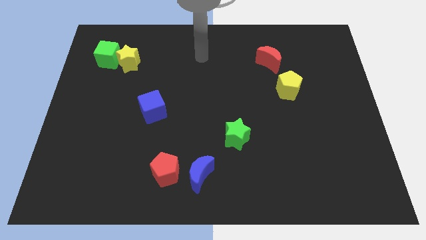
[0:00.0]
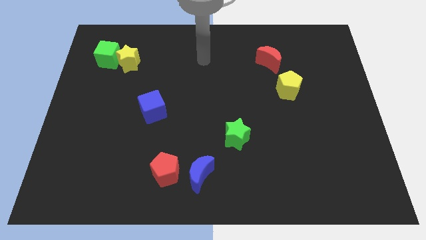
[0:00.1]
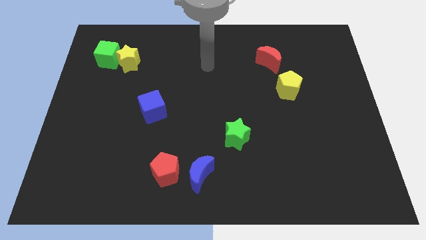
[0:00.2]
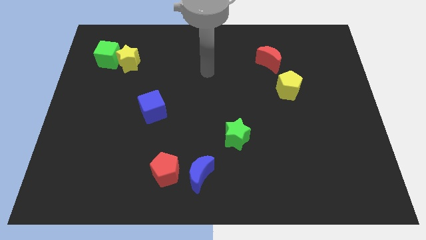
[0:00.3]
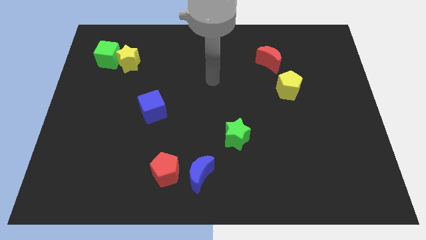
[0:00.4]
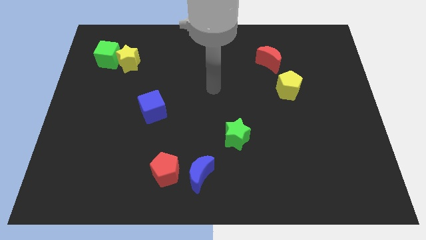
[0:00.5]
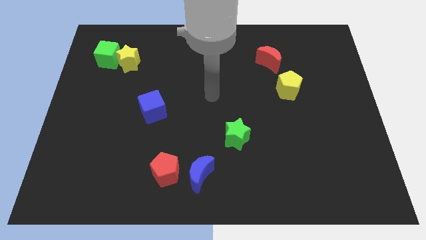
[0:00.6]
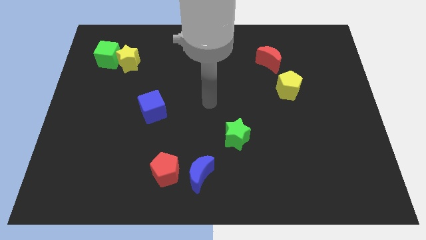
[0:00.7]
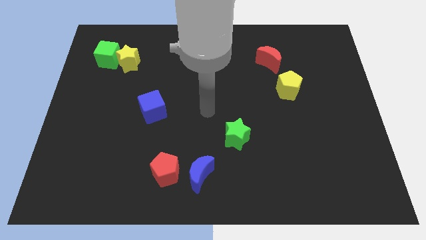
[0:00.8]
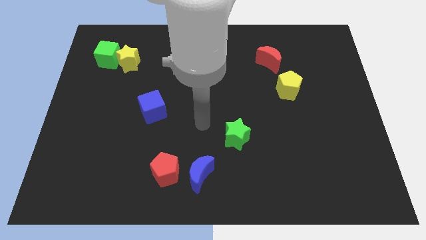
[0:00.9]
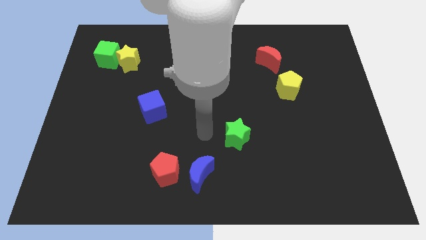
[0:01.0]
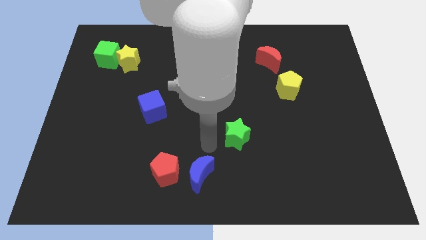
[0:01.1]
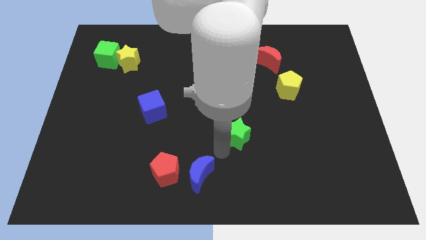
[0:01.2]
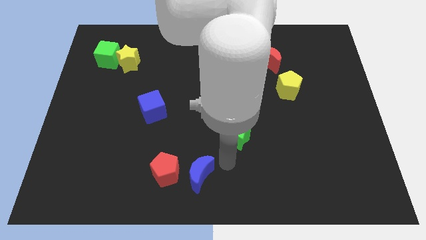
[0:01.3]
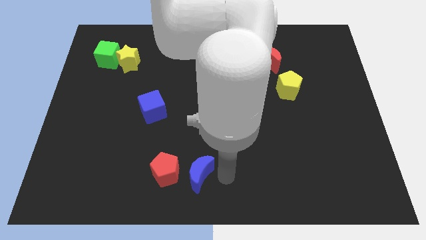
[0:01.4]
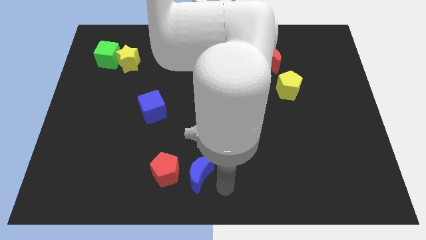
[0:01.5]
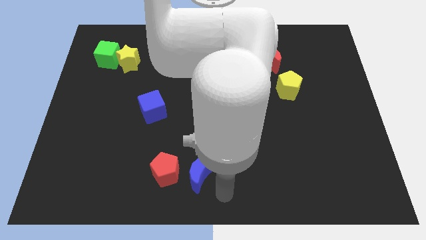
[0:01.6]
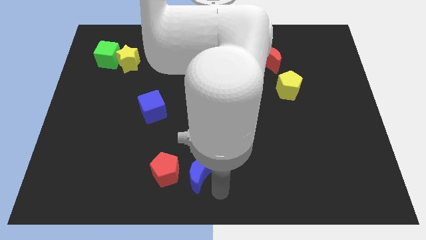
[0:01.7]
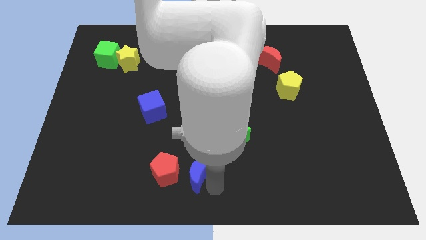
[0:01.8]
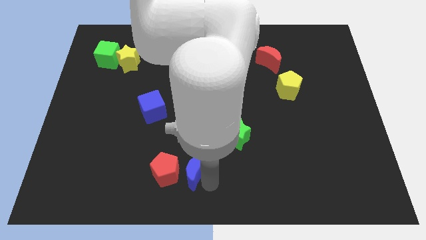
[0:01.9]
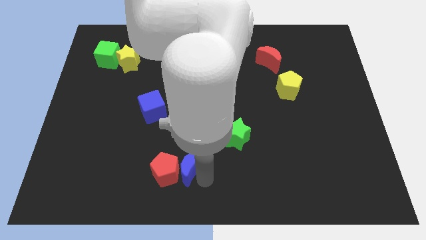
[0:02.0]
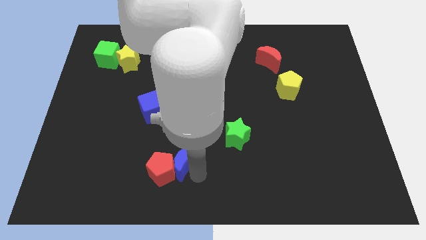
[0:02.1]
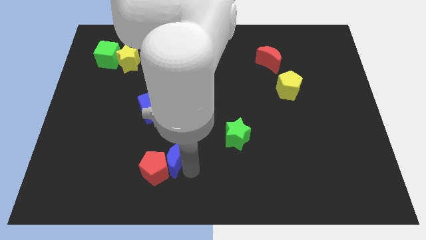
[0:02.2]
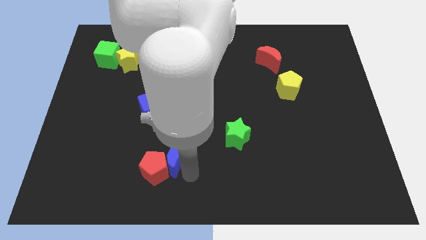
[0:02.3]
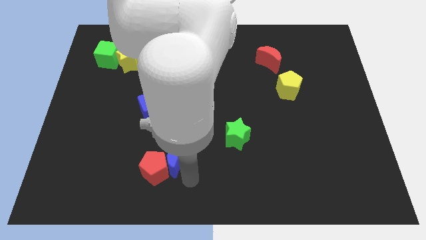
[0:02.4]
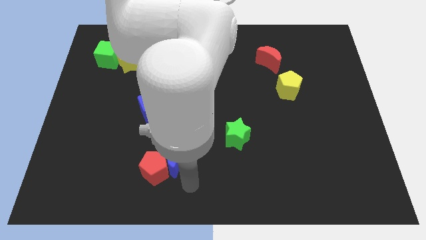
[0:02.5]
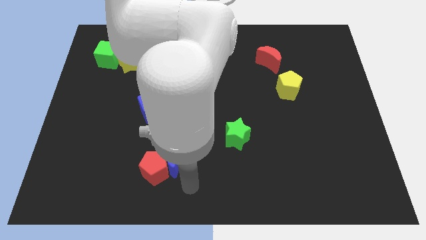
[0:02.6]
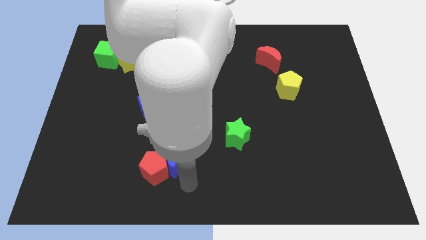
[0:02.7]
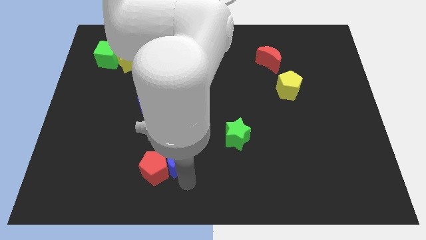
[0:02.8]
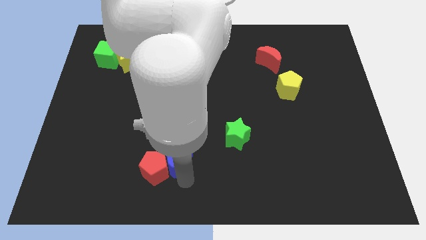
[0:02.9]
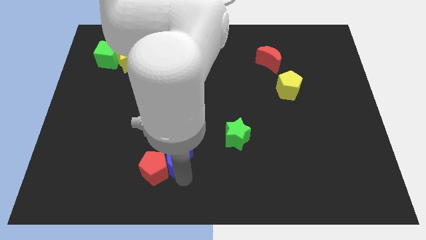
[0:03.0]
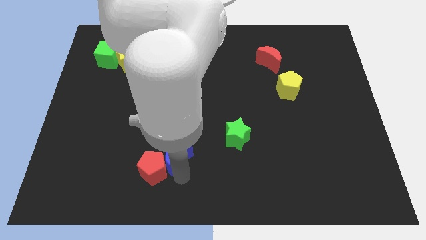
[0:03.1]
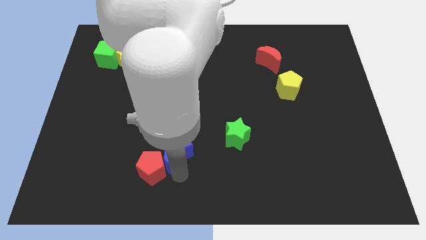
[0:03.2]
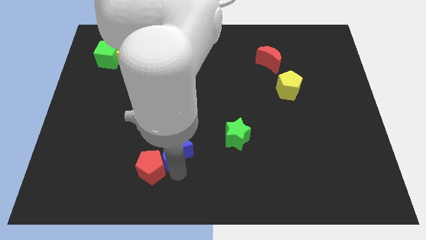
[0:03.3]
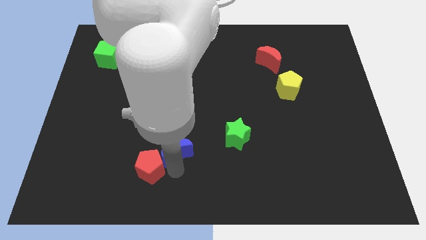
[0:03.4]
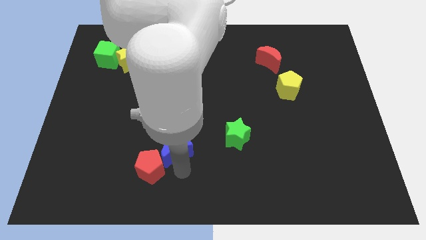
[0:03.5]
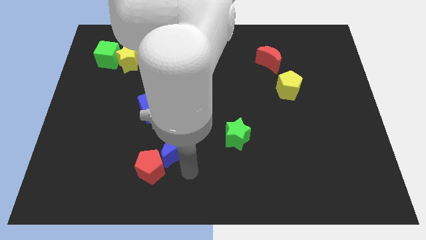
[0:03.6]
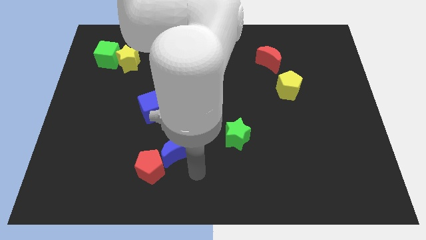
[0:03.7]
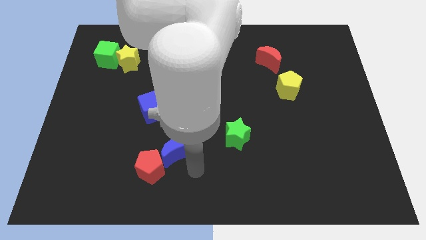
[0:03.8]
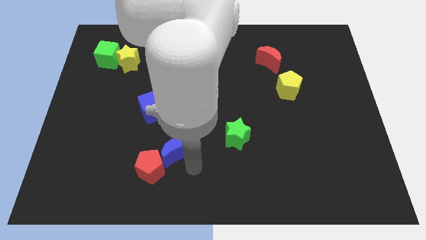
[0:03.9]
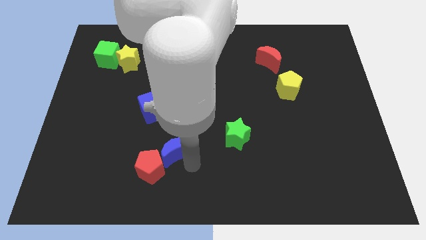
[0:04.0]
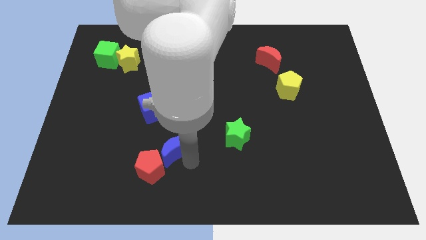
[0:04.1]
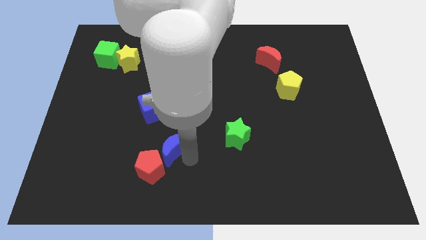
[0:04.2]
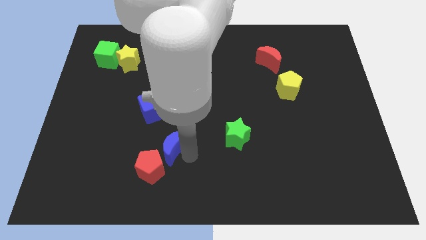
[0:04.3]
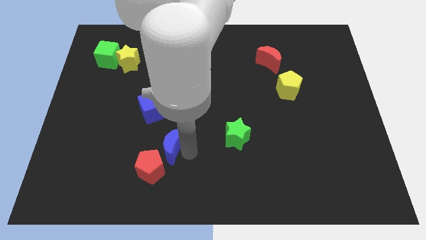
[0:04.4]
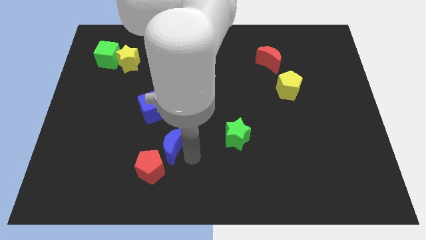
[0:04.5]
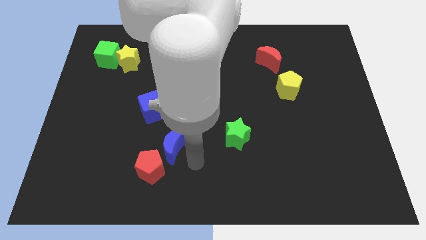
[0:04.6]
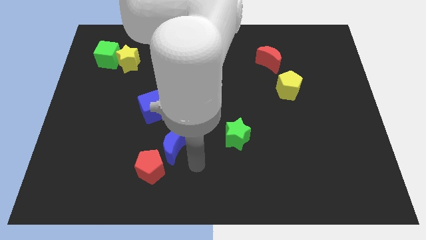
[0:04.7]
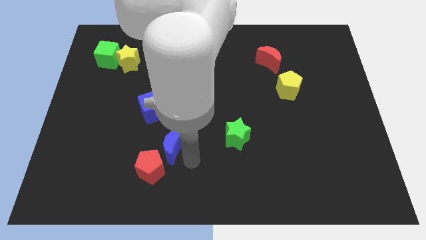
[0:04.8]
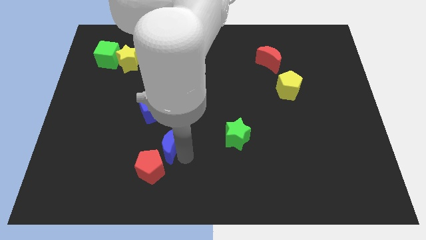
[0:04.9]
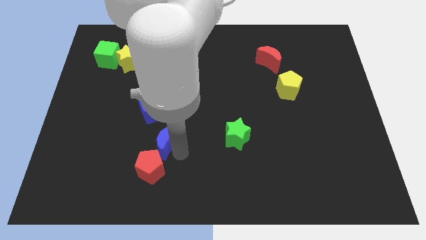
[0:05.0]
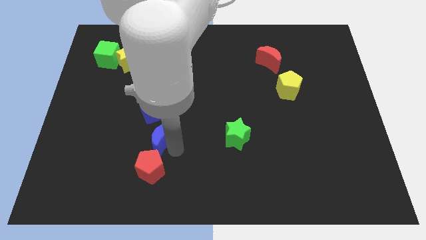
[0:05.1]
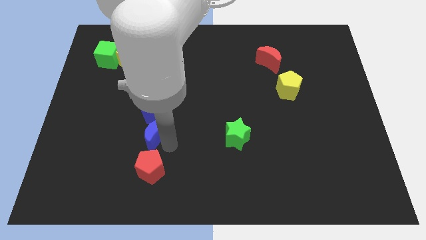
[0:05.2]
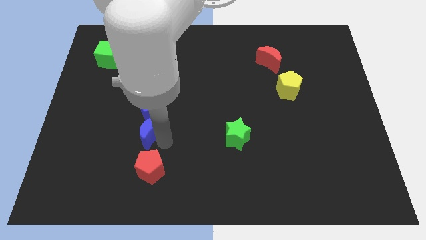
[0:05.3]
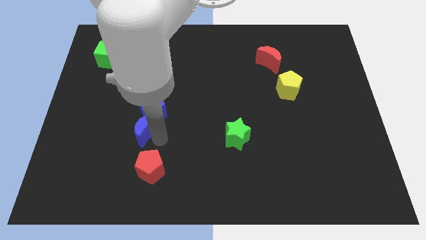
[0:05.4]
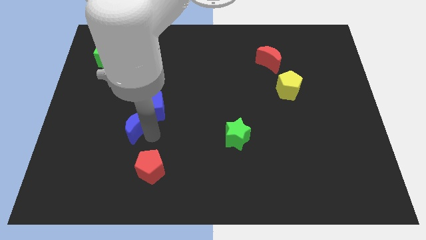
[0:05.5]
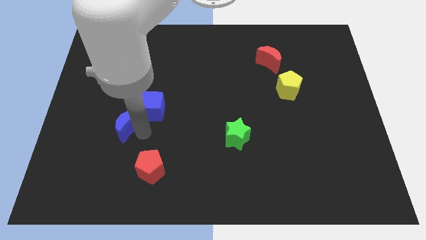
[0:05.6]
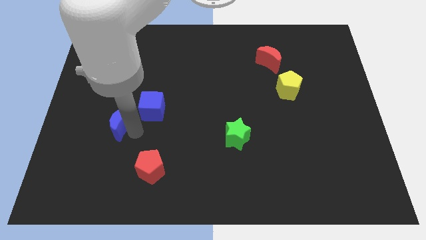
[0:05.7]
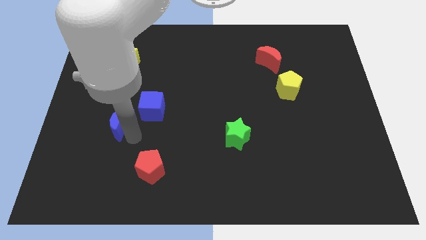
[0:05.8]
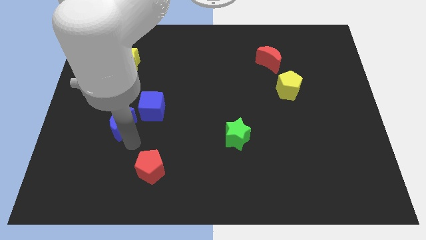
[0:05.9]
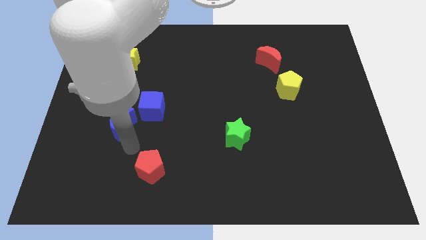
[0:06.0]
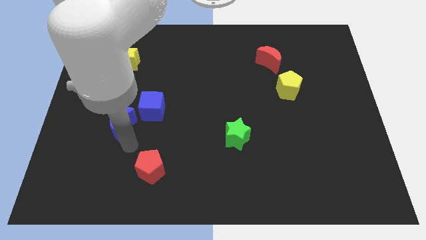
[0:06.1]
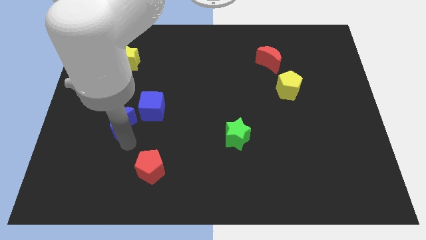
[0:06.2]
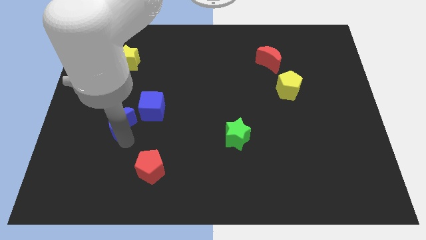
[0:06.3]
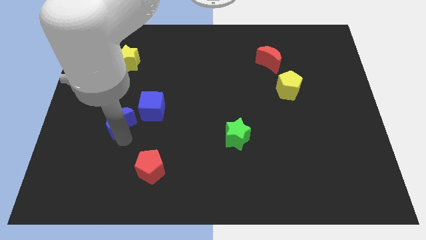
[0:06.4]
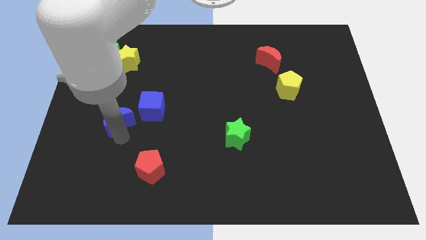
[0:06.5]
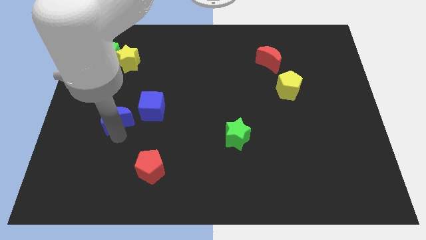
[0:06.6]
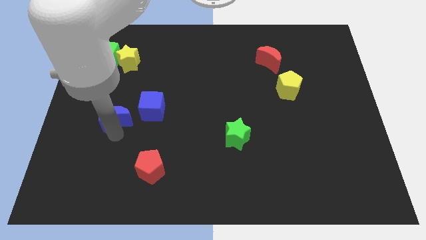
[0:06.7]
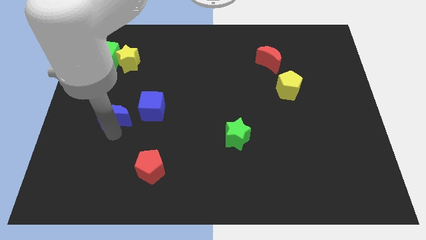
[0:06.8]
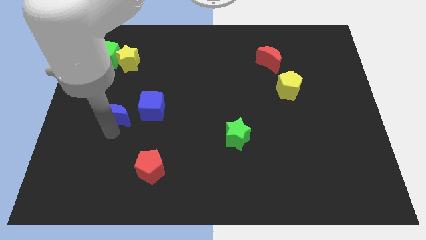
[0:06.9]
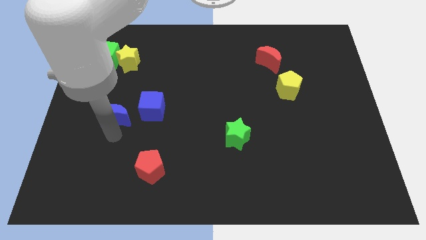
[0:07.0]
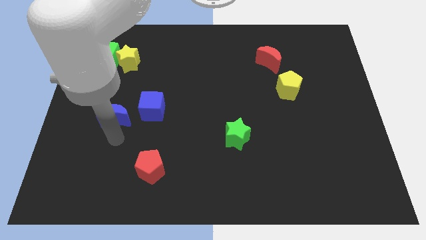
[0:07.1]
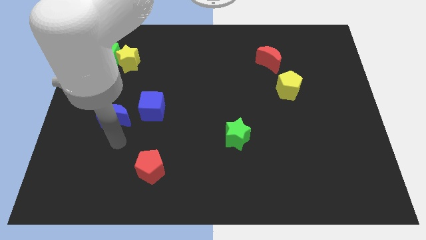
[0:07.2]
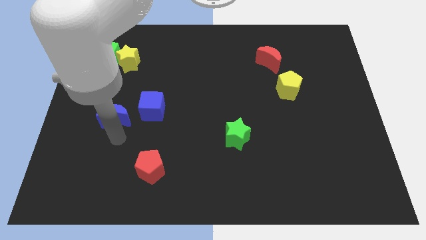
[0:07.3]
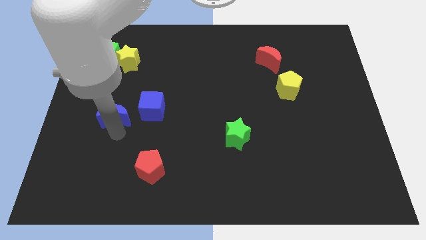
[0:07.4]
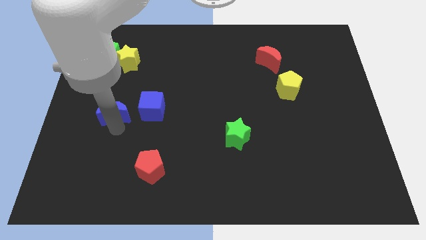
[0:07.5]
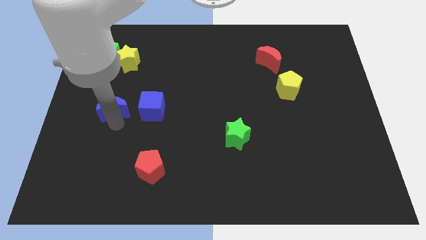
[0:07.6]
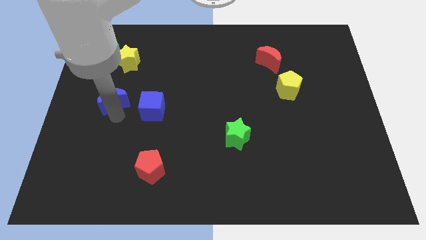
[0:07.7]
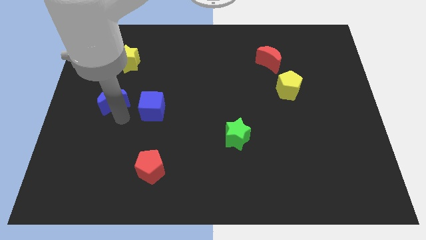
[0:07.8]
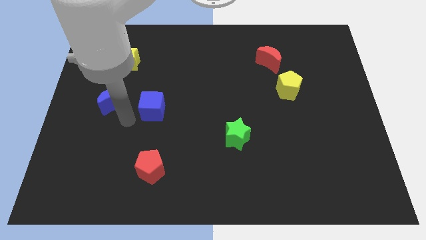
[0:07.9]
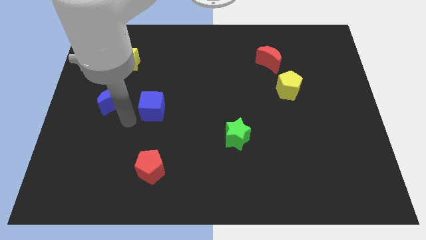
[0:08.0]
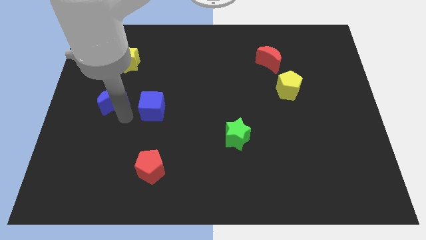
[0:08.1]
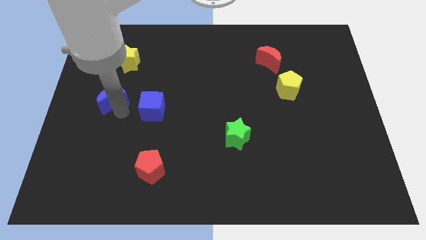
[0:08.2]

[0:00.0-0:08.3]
push the blue moon to the bottom side of the green cube

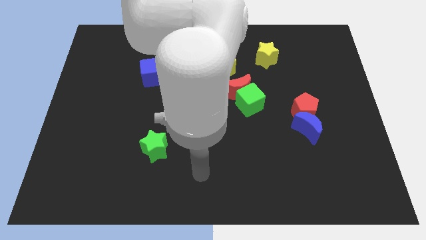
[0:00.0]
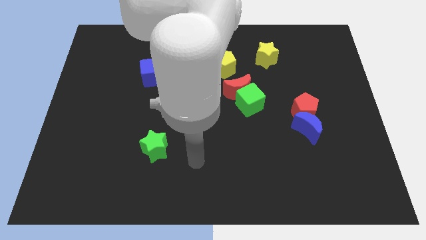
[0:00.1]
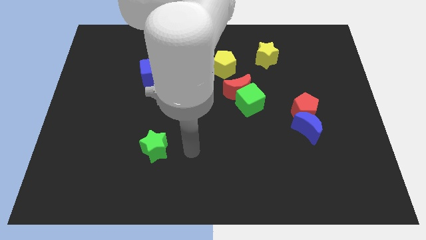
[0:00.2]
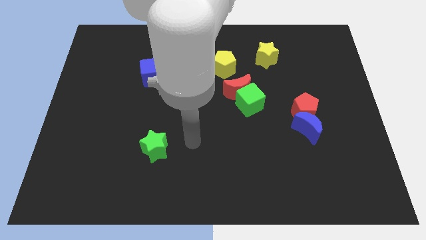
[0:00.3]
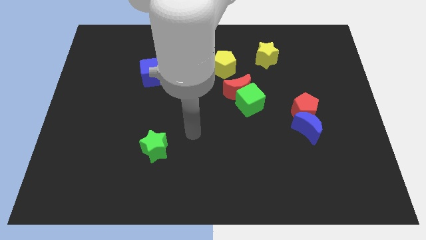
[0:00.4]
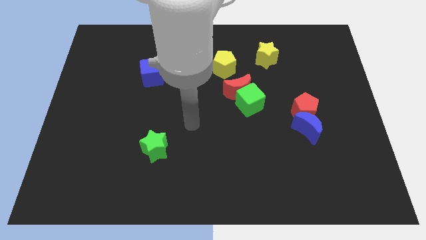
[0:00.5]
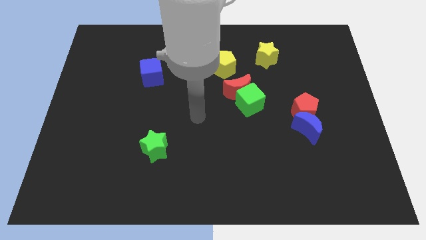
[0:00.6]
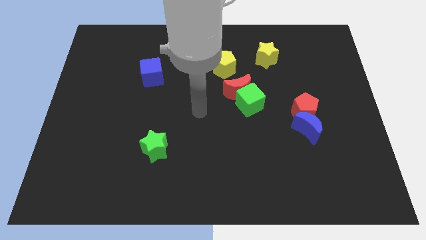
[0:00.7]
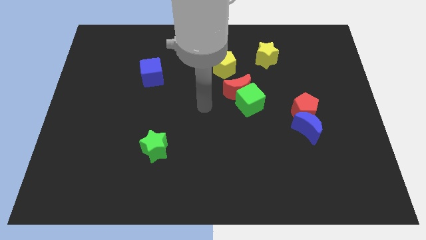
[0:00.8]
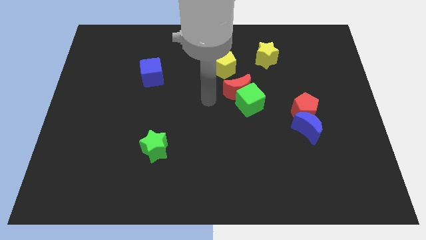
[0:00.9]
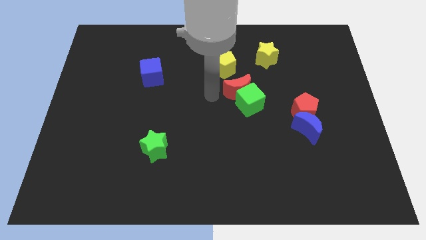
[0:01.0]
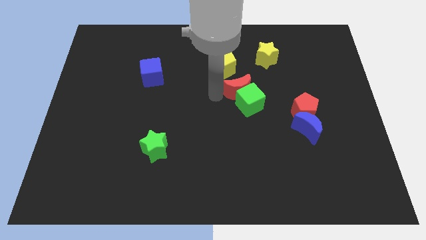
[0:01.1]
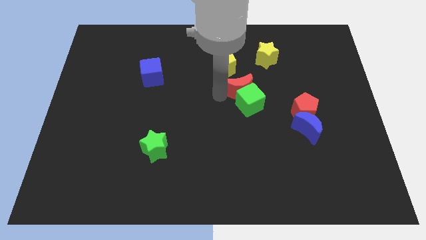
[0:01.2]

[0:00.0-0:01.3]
put the red moon to the top right side of the green cube
